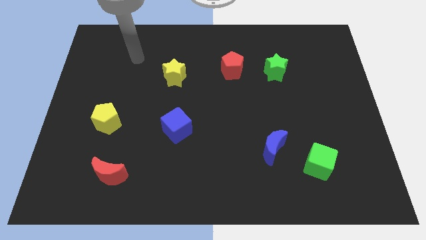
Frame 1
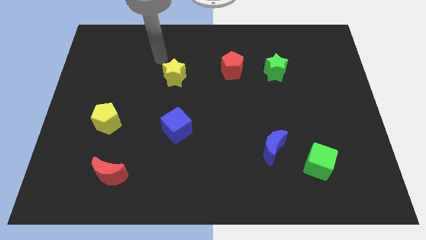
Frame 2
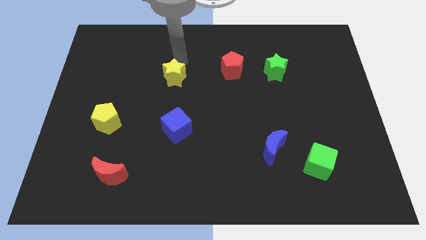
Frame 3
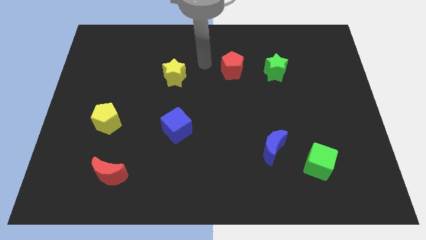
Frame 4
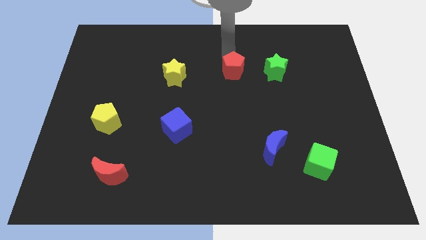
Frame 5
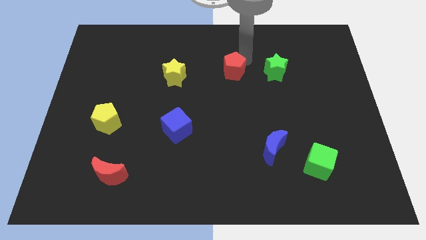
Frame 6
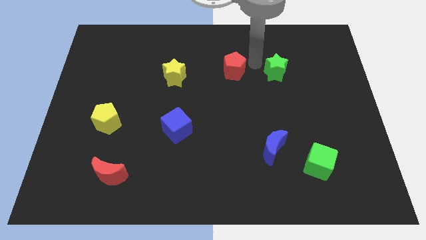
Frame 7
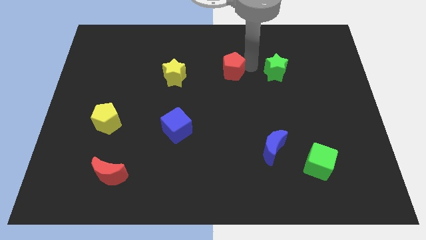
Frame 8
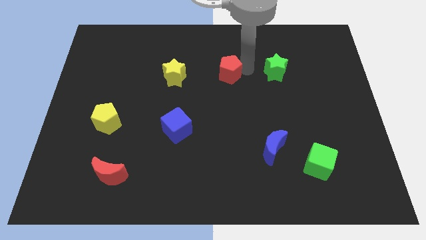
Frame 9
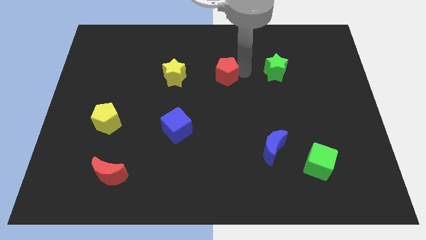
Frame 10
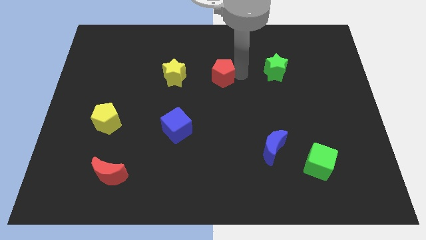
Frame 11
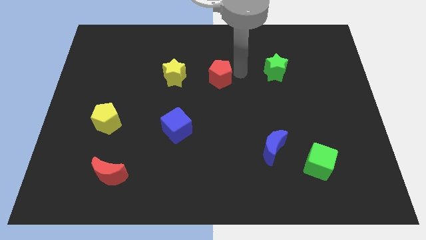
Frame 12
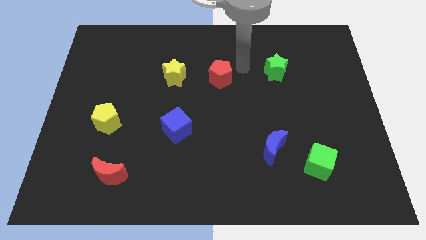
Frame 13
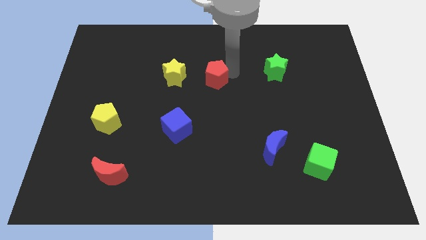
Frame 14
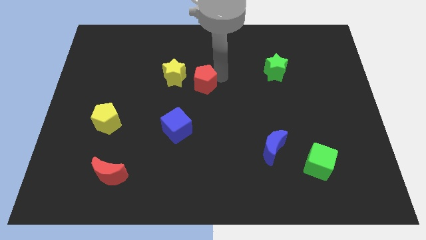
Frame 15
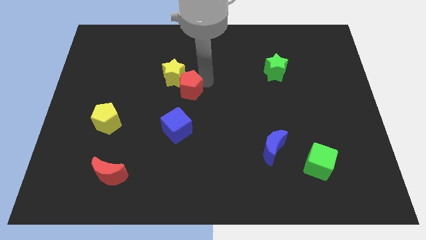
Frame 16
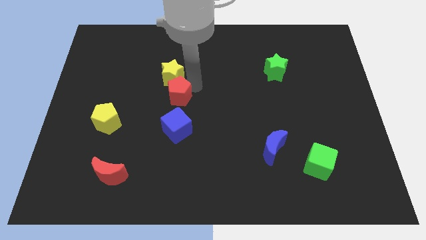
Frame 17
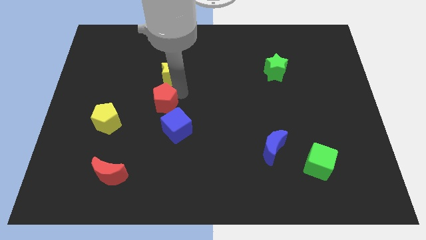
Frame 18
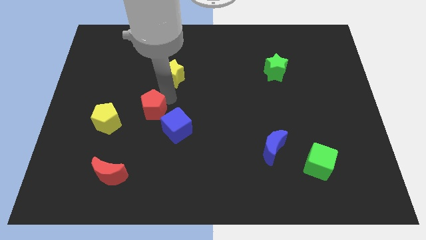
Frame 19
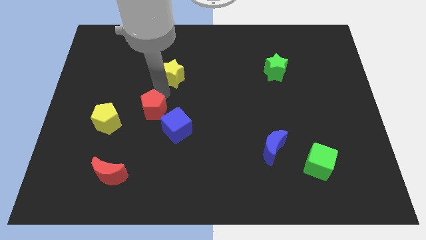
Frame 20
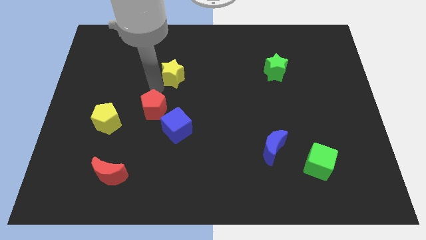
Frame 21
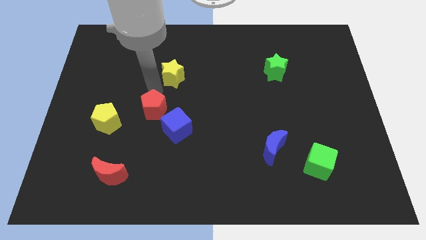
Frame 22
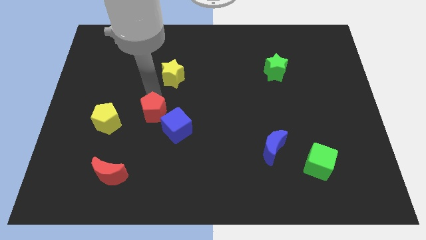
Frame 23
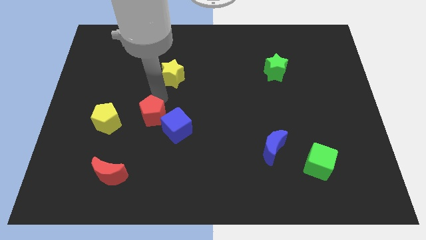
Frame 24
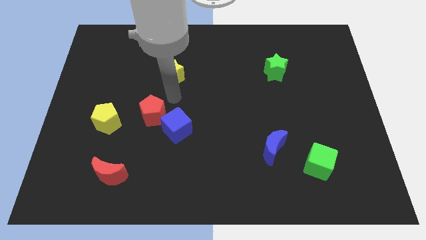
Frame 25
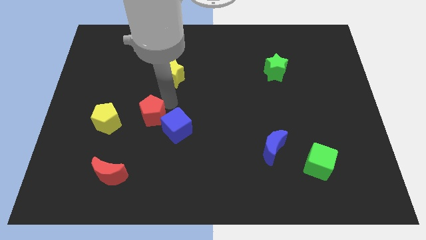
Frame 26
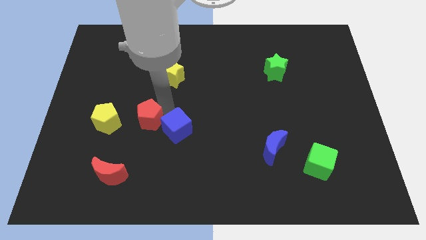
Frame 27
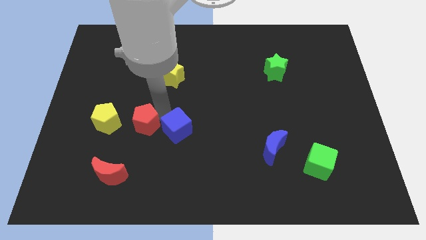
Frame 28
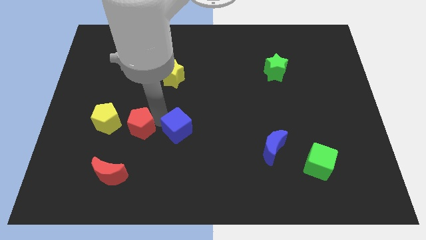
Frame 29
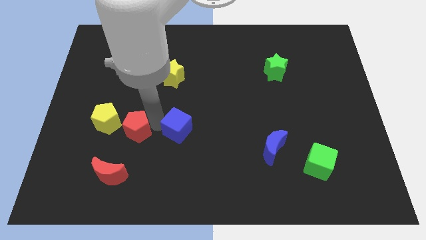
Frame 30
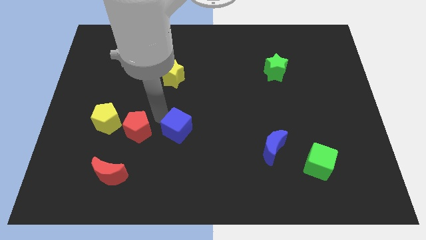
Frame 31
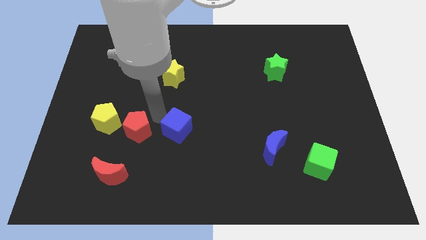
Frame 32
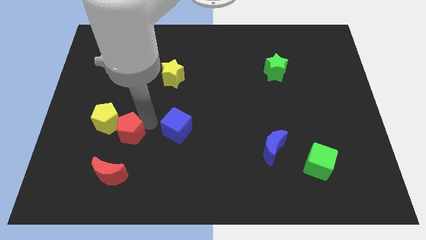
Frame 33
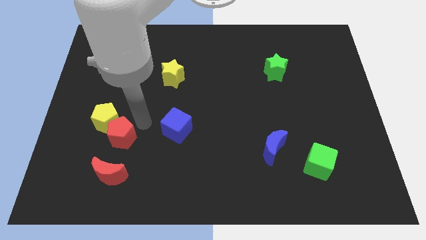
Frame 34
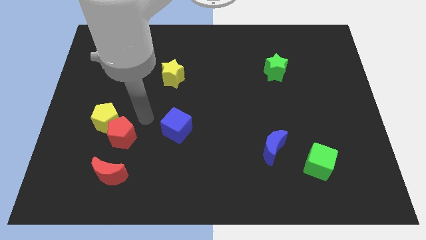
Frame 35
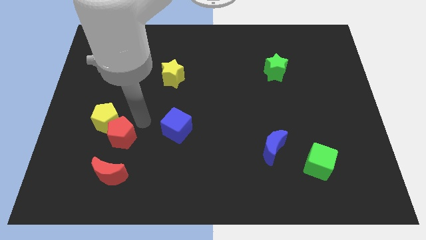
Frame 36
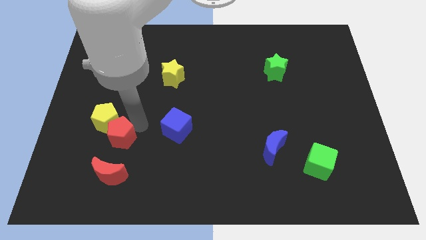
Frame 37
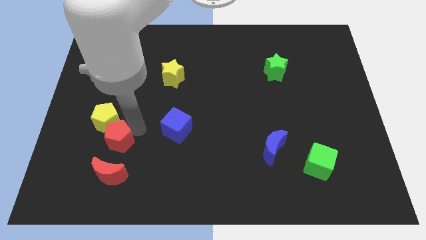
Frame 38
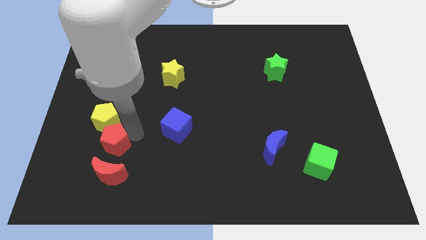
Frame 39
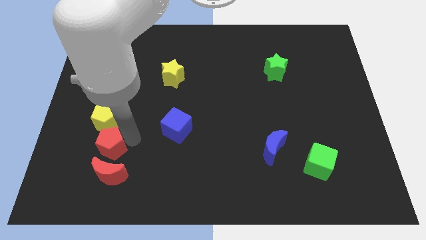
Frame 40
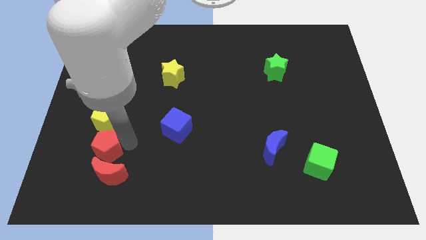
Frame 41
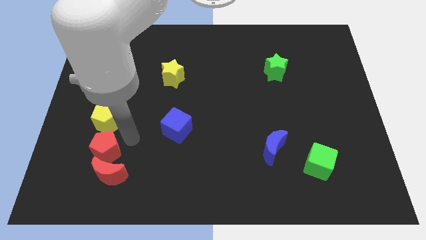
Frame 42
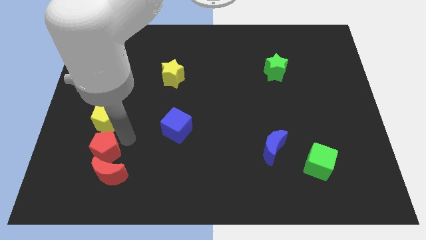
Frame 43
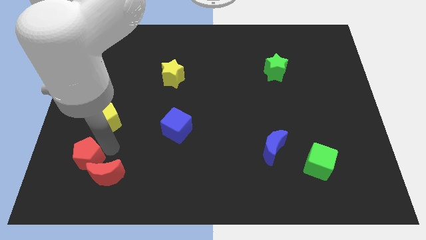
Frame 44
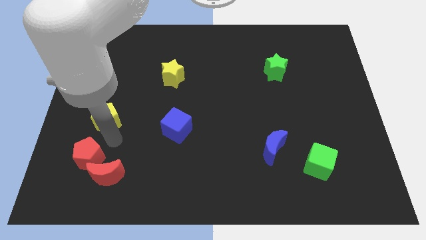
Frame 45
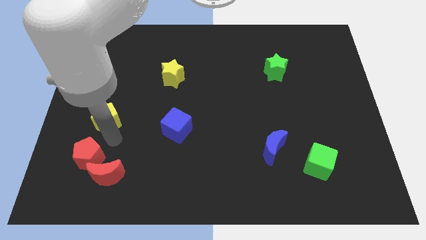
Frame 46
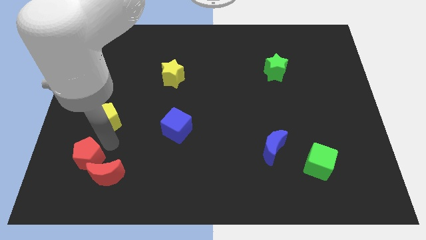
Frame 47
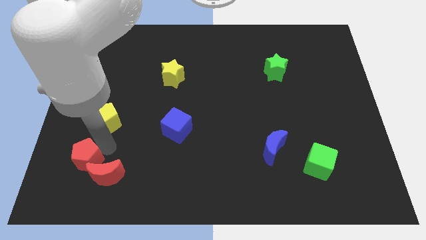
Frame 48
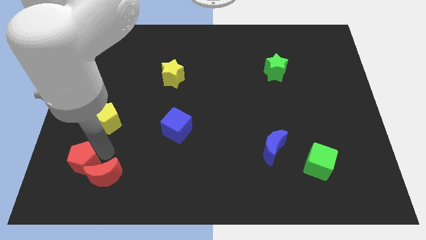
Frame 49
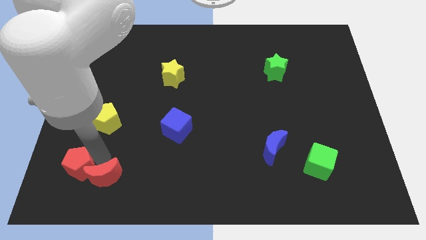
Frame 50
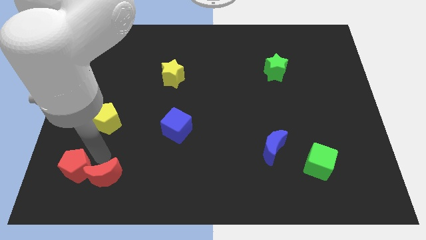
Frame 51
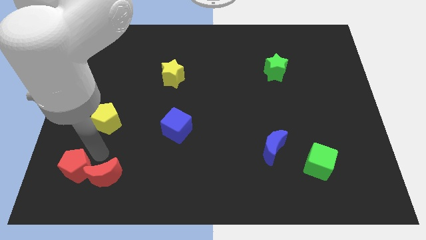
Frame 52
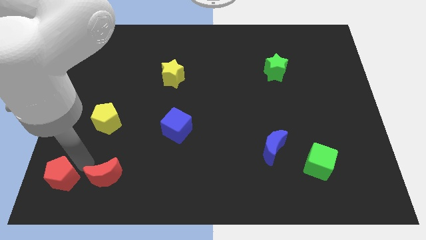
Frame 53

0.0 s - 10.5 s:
move the red pentagon to the bottom left of the board

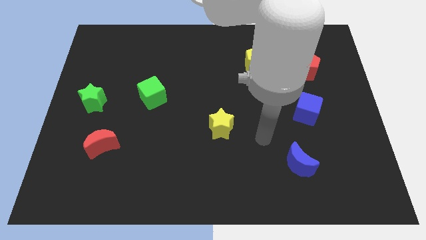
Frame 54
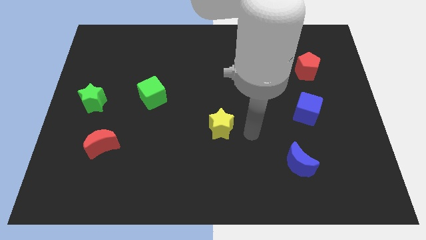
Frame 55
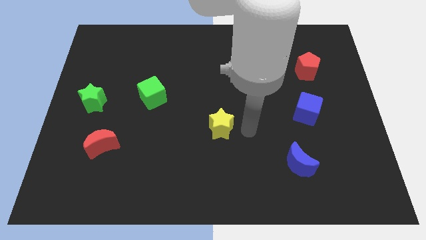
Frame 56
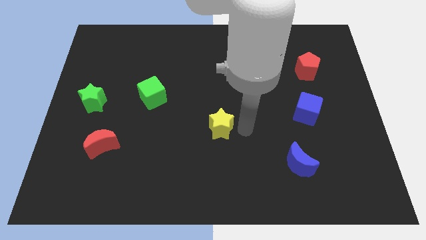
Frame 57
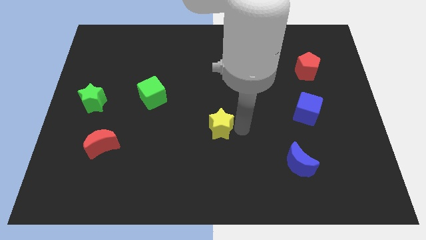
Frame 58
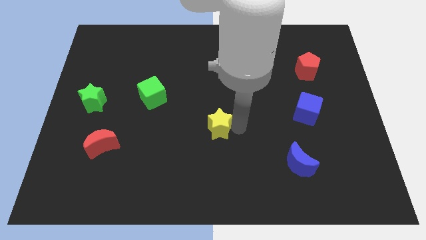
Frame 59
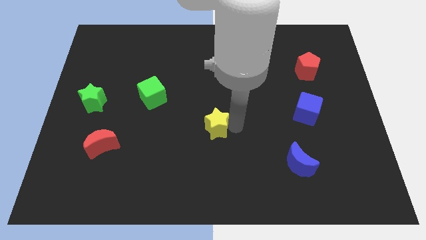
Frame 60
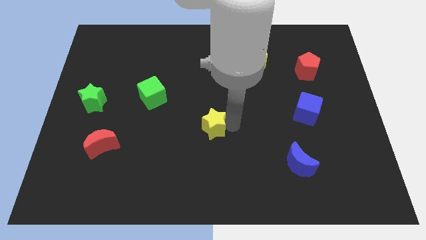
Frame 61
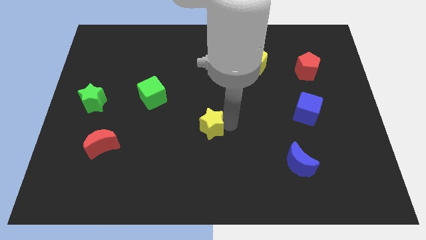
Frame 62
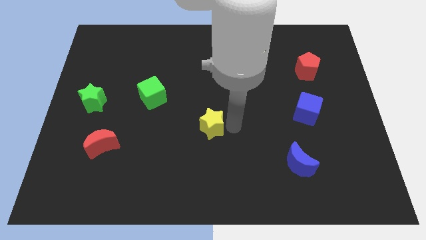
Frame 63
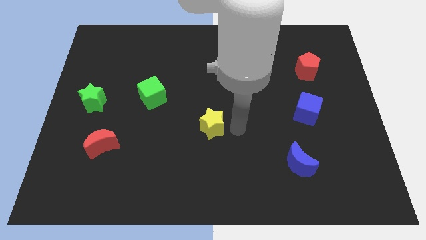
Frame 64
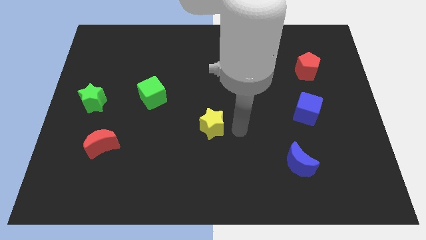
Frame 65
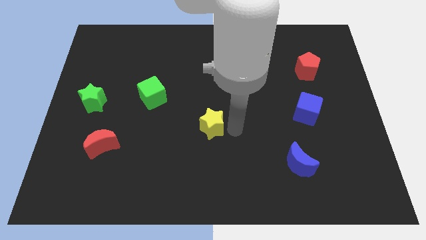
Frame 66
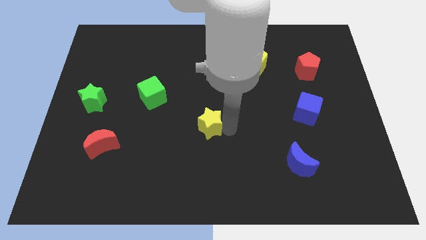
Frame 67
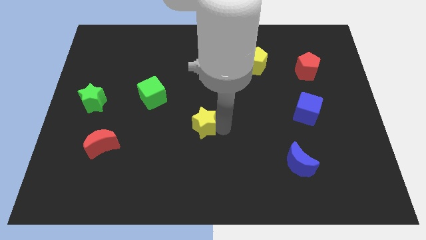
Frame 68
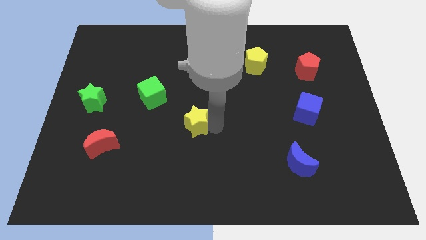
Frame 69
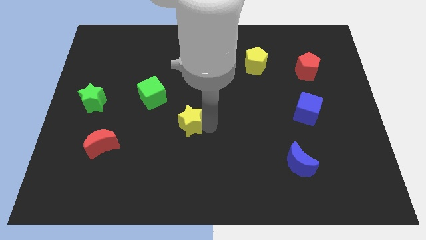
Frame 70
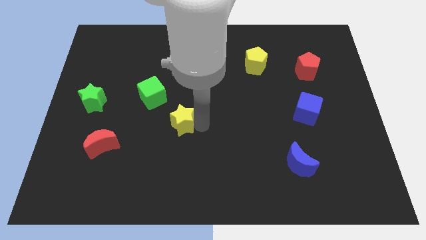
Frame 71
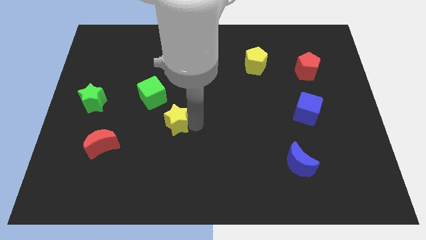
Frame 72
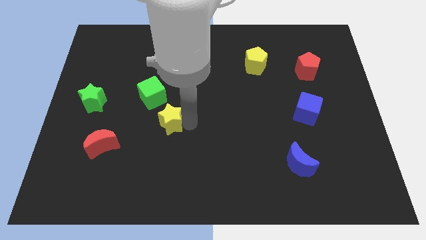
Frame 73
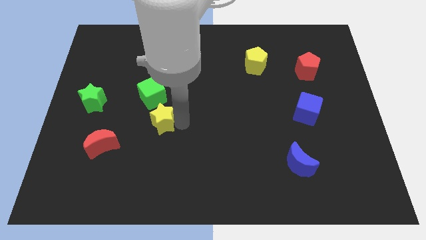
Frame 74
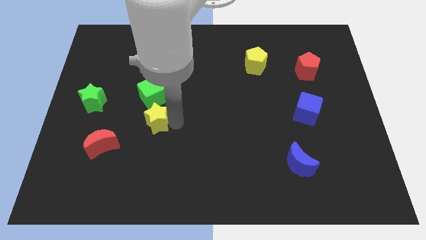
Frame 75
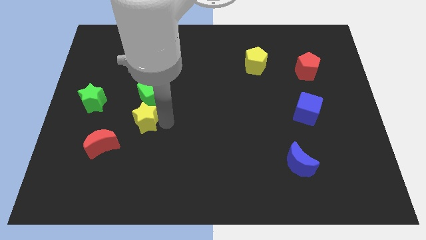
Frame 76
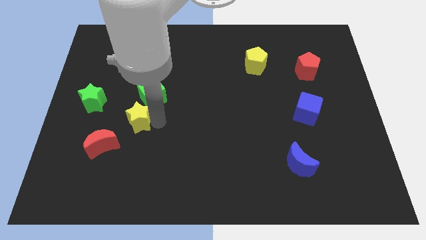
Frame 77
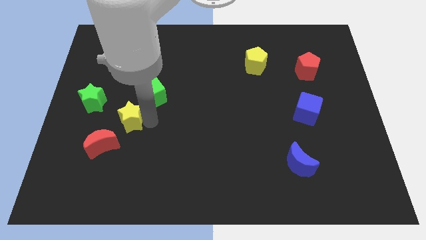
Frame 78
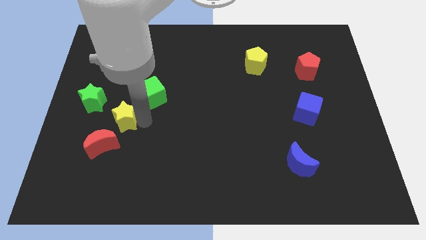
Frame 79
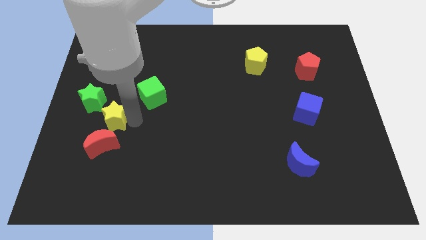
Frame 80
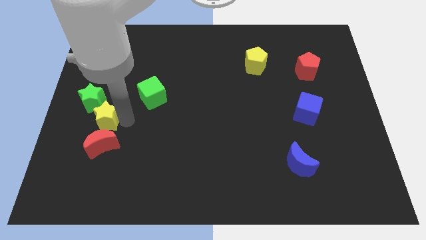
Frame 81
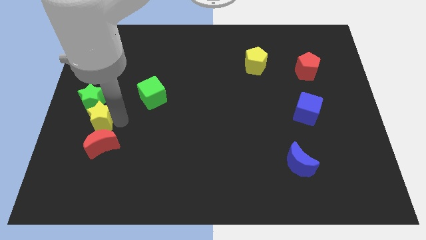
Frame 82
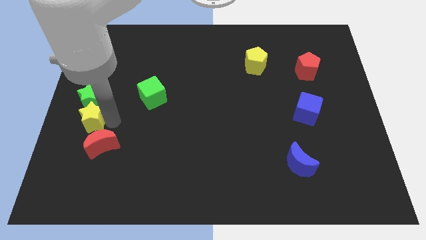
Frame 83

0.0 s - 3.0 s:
slide the yellow star to the left side
